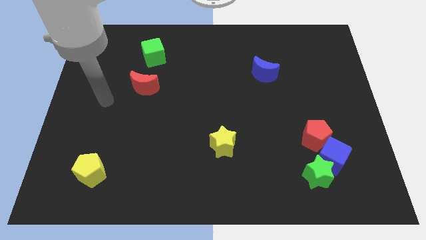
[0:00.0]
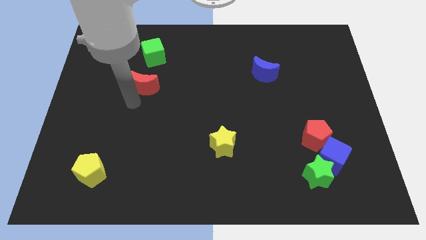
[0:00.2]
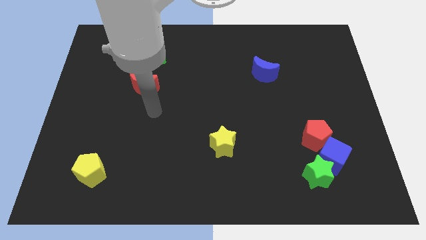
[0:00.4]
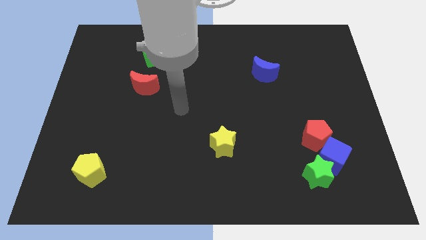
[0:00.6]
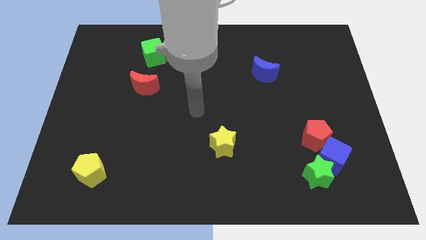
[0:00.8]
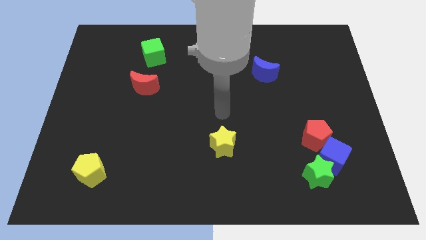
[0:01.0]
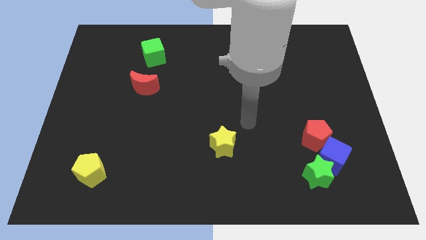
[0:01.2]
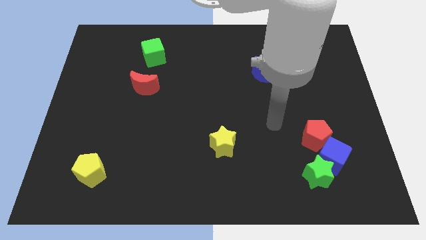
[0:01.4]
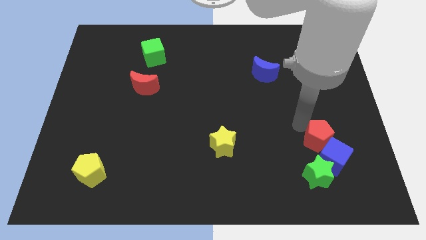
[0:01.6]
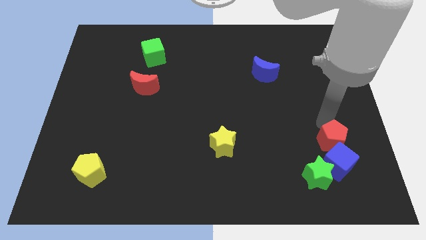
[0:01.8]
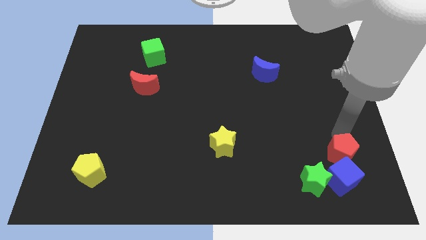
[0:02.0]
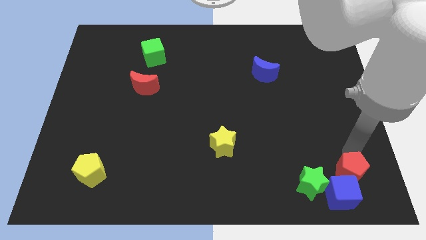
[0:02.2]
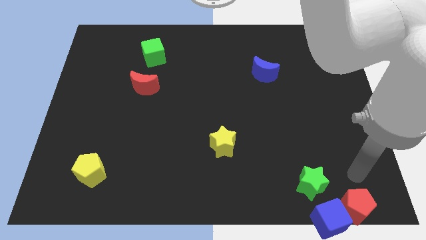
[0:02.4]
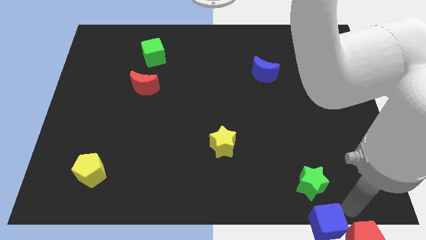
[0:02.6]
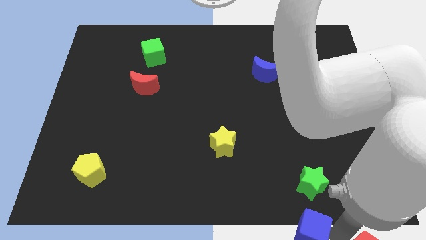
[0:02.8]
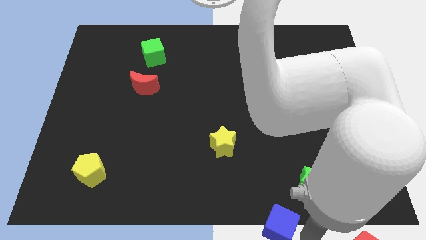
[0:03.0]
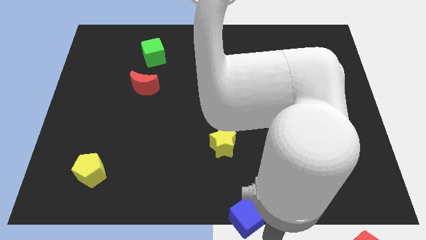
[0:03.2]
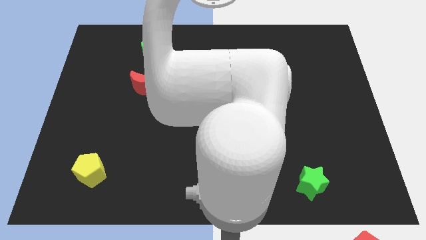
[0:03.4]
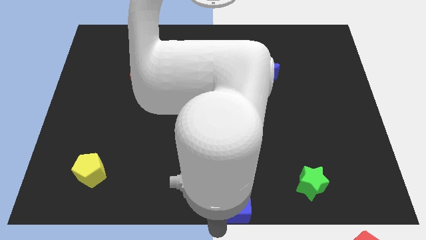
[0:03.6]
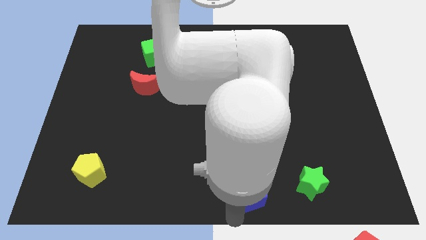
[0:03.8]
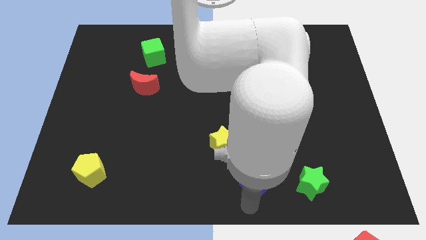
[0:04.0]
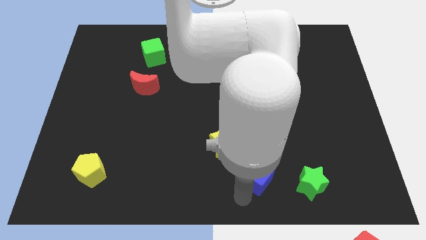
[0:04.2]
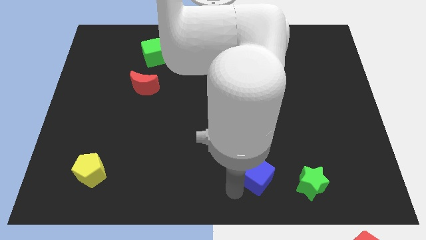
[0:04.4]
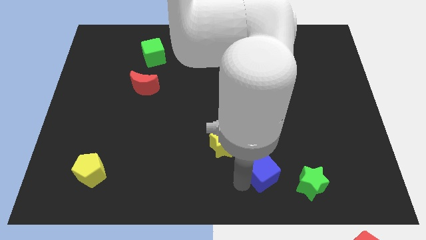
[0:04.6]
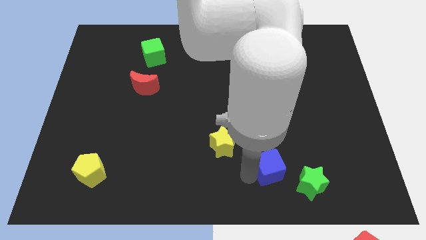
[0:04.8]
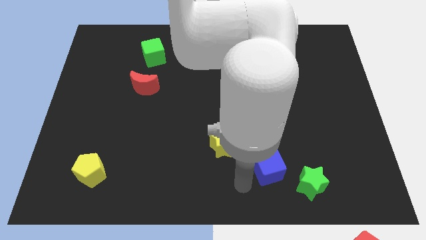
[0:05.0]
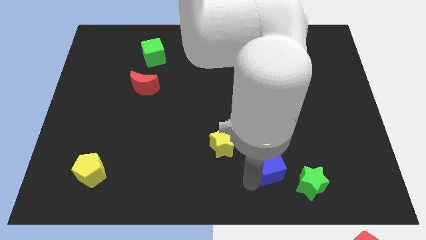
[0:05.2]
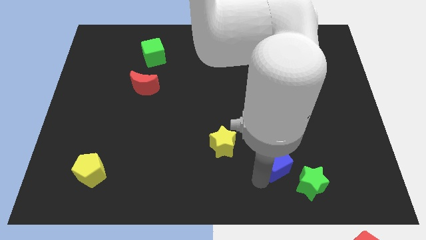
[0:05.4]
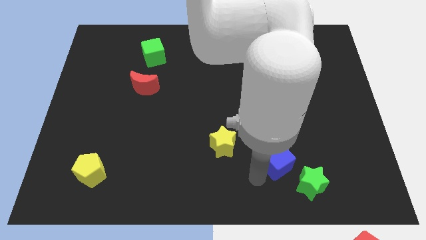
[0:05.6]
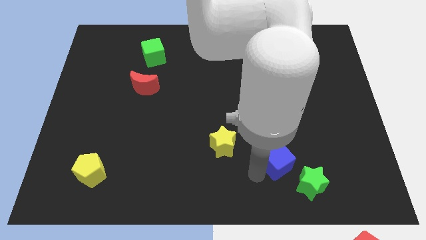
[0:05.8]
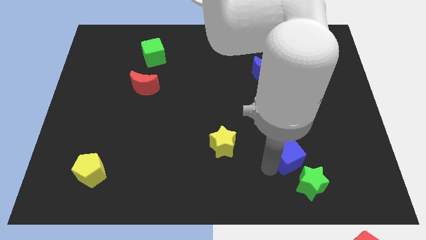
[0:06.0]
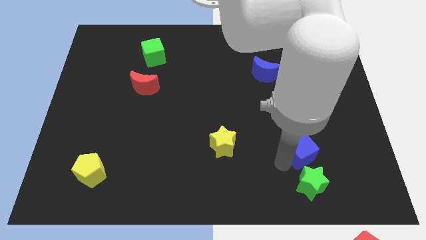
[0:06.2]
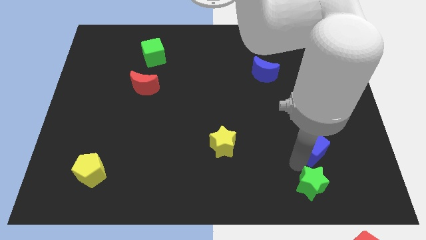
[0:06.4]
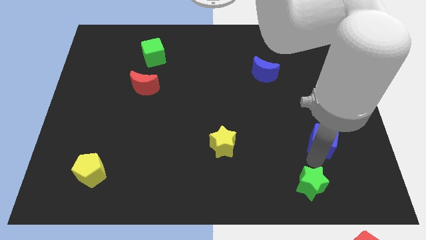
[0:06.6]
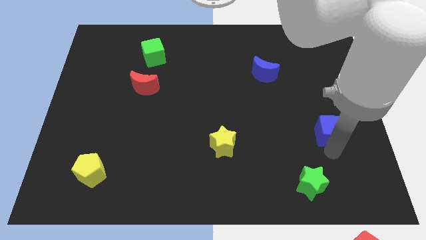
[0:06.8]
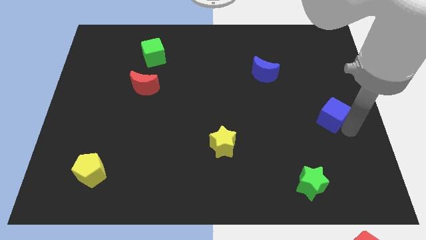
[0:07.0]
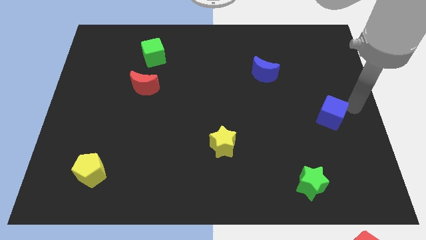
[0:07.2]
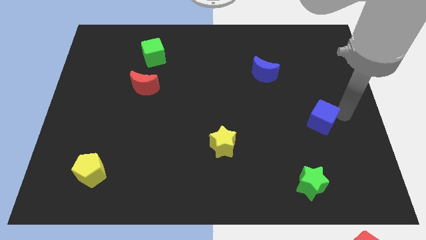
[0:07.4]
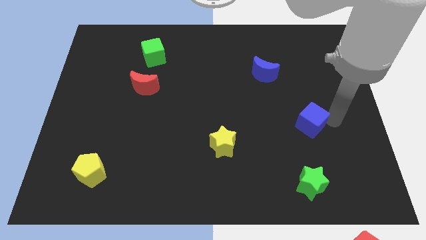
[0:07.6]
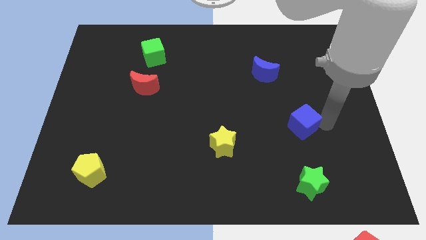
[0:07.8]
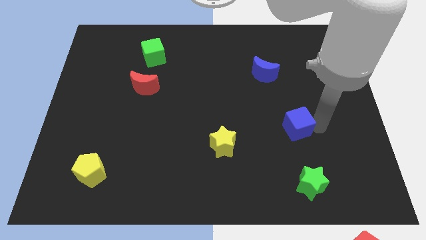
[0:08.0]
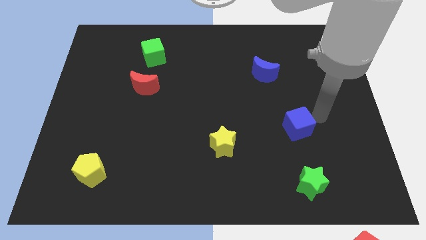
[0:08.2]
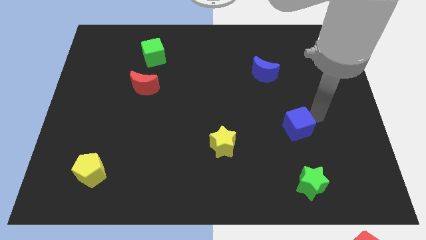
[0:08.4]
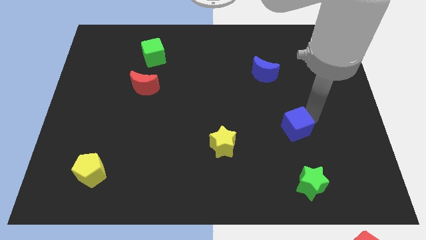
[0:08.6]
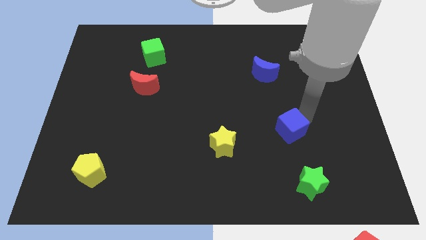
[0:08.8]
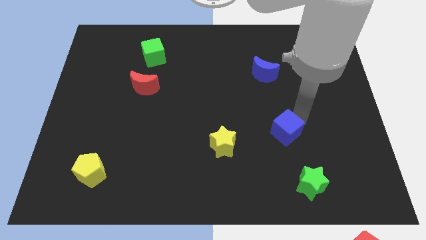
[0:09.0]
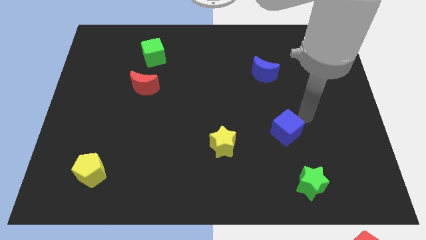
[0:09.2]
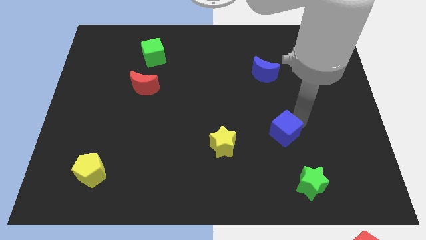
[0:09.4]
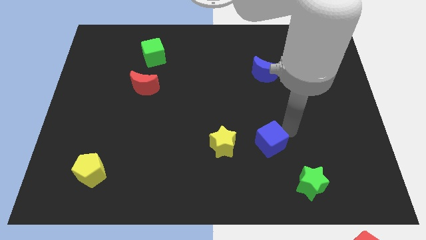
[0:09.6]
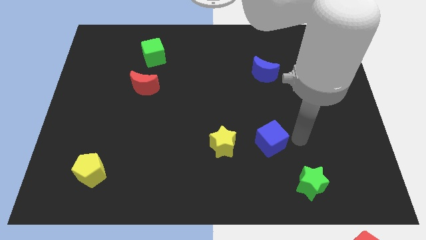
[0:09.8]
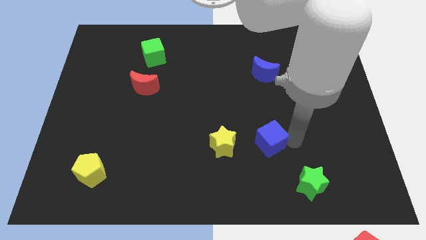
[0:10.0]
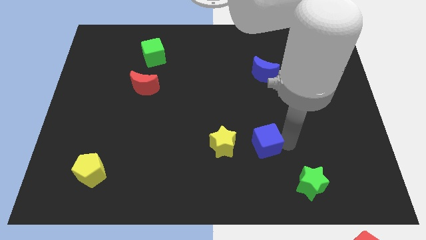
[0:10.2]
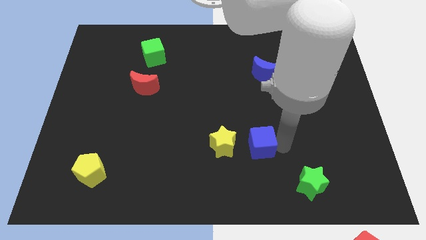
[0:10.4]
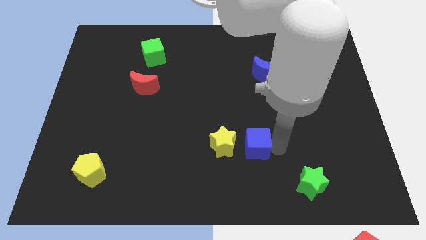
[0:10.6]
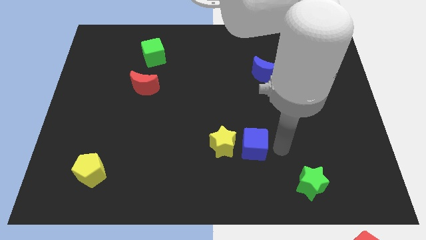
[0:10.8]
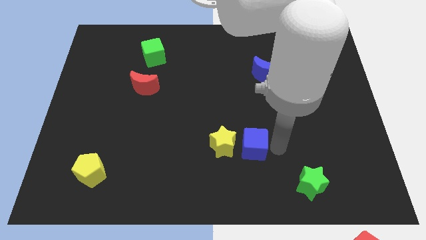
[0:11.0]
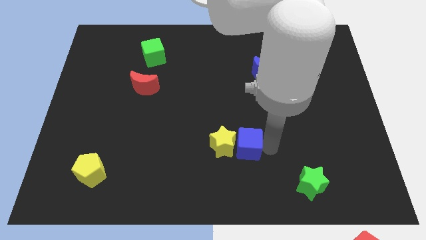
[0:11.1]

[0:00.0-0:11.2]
push the blue cube next to the yellow star

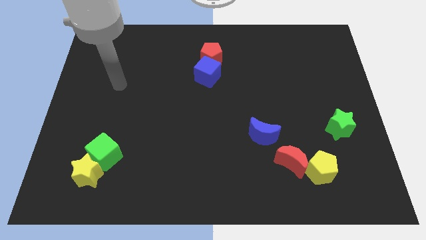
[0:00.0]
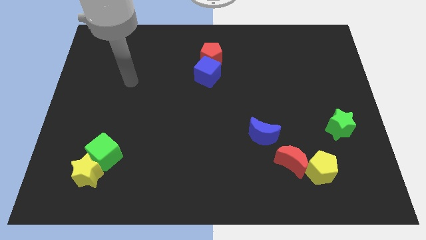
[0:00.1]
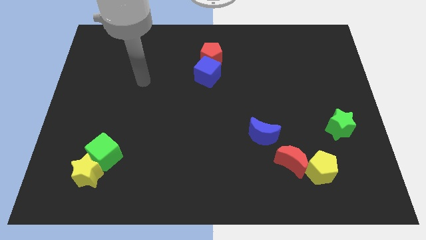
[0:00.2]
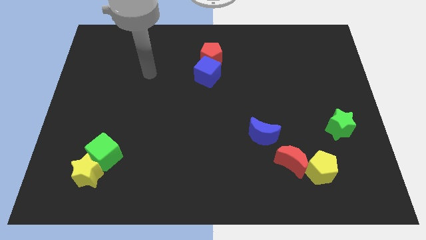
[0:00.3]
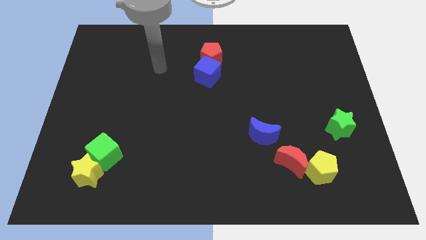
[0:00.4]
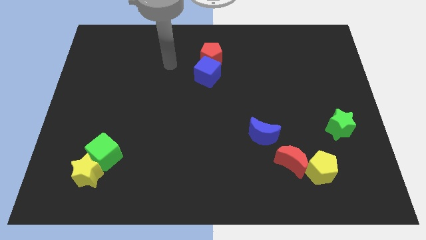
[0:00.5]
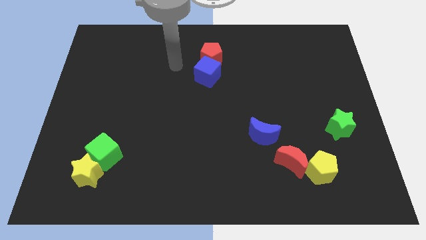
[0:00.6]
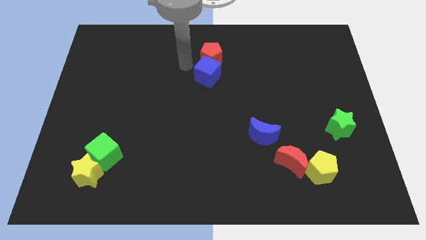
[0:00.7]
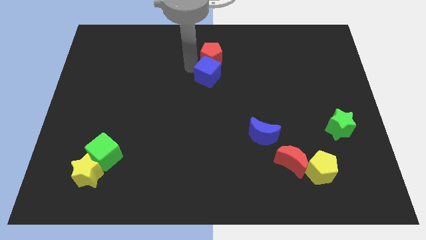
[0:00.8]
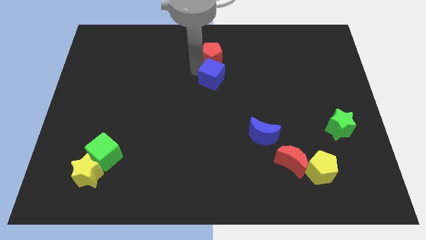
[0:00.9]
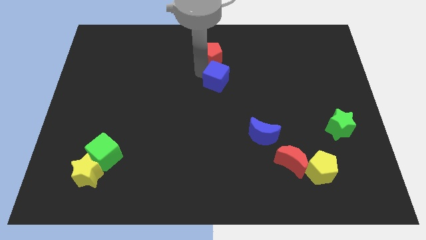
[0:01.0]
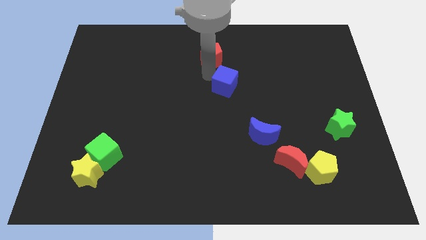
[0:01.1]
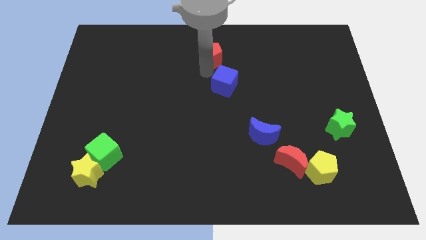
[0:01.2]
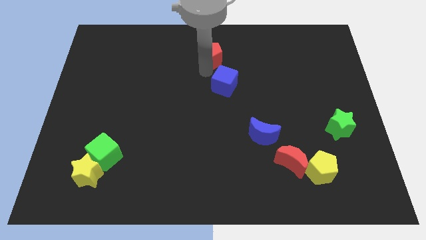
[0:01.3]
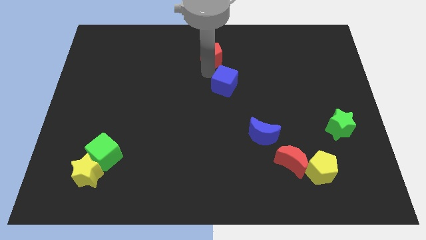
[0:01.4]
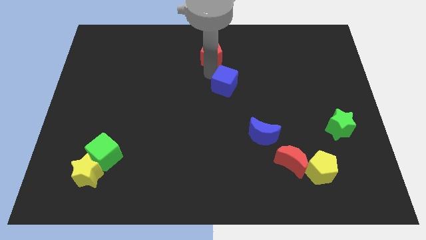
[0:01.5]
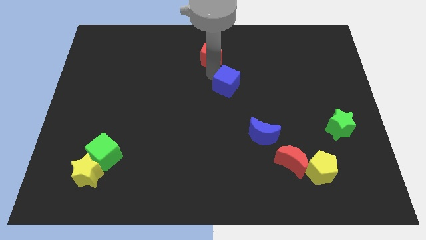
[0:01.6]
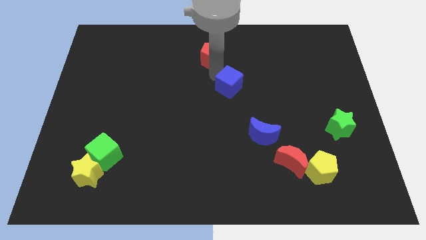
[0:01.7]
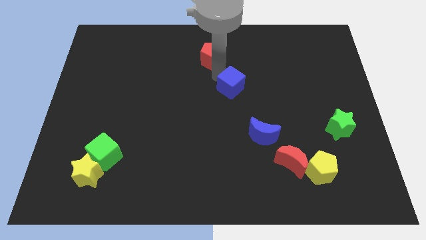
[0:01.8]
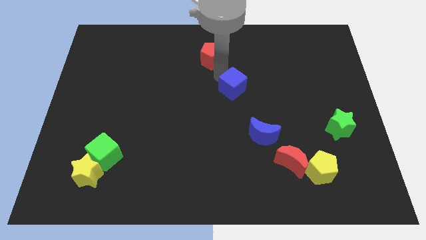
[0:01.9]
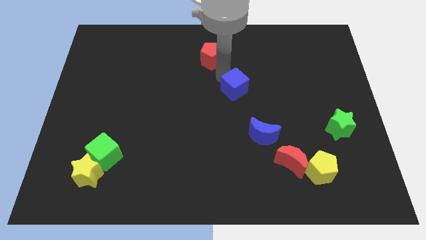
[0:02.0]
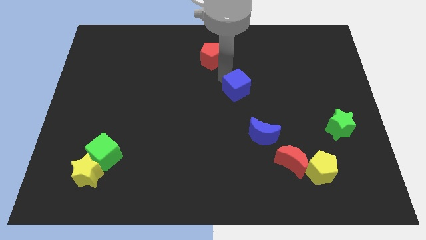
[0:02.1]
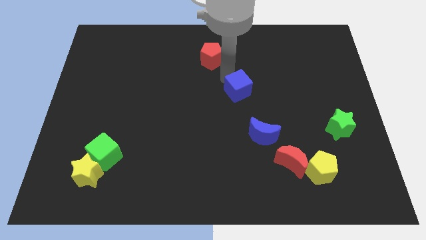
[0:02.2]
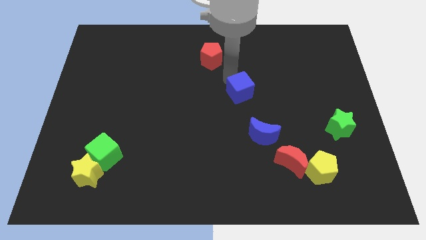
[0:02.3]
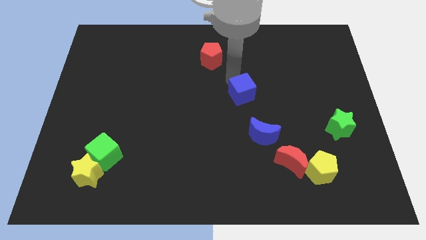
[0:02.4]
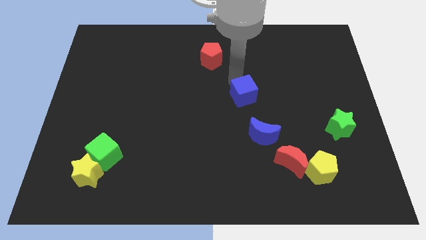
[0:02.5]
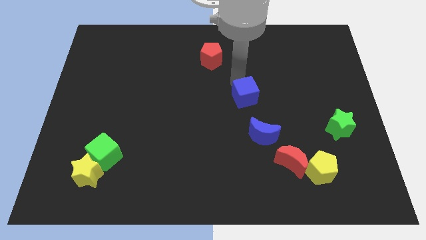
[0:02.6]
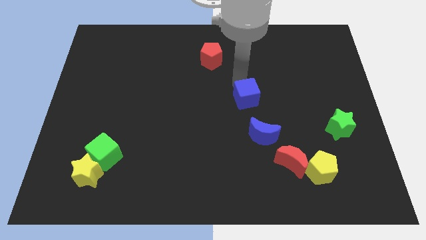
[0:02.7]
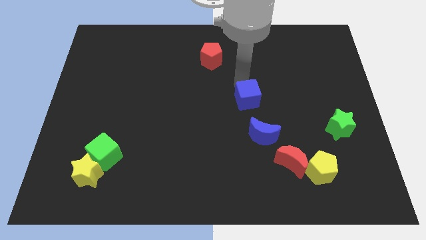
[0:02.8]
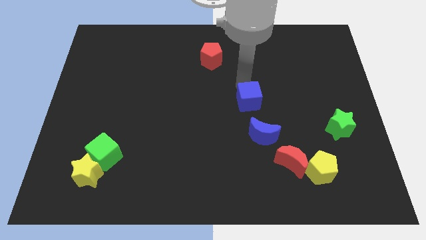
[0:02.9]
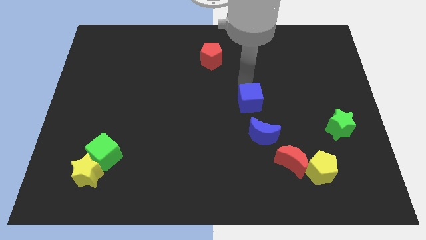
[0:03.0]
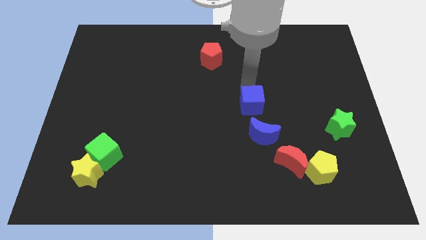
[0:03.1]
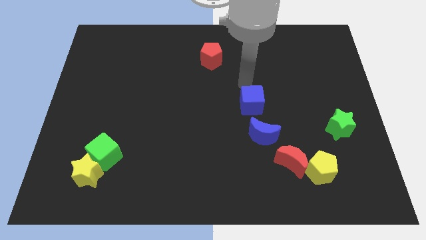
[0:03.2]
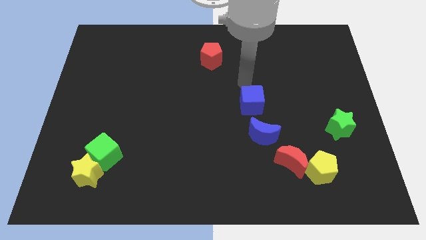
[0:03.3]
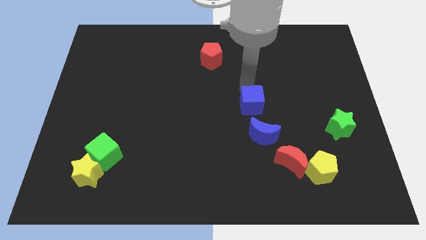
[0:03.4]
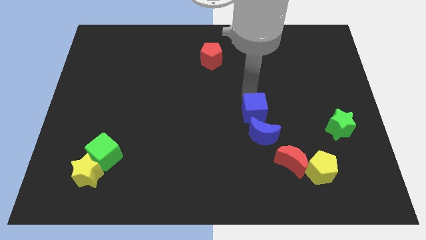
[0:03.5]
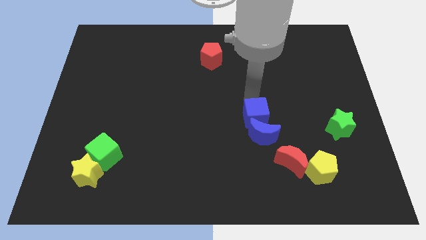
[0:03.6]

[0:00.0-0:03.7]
put the blue cube to the blue moon
